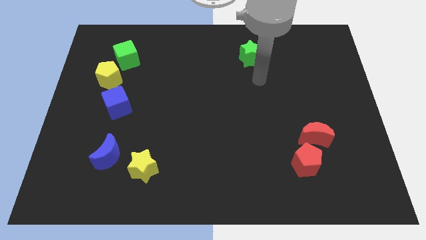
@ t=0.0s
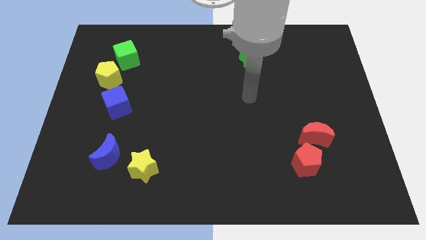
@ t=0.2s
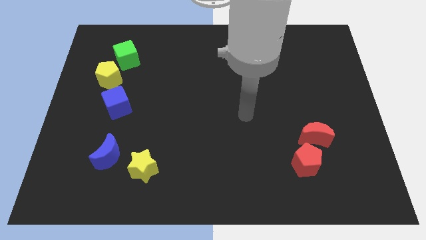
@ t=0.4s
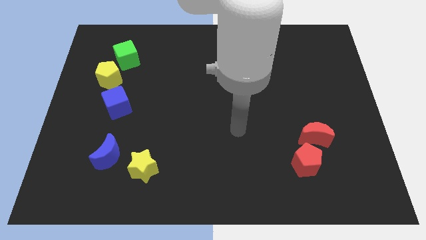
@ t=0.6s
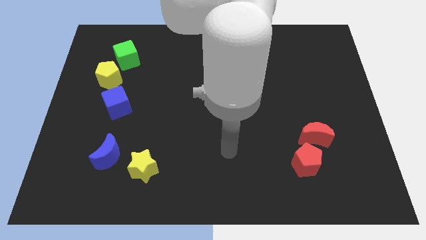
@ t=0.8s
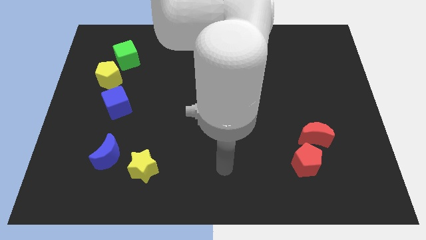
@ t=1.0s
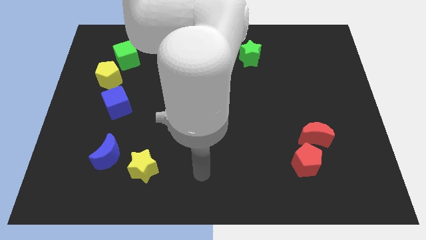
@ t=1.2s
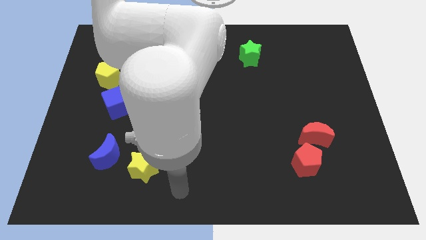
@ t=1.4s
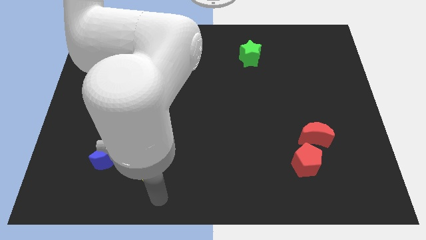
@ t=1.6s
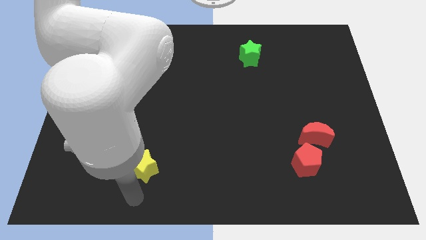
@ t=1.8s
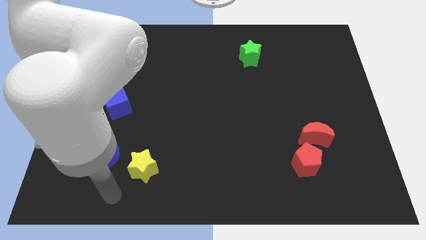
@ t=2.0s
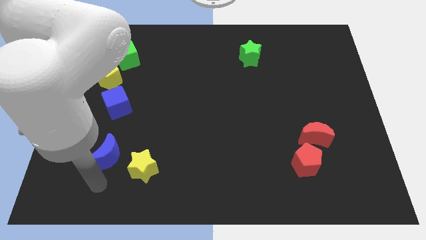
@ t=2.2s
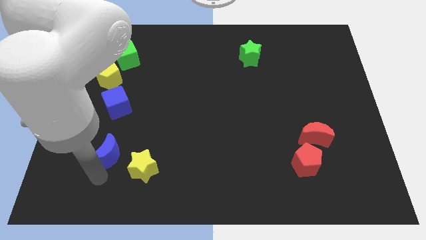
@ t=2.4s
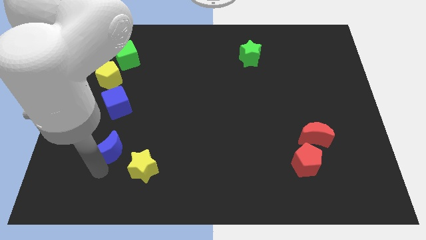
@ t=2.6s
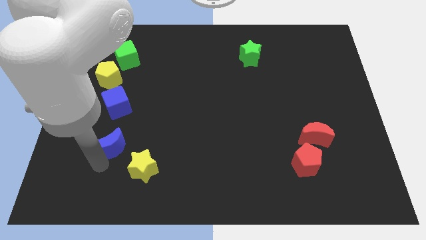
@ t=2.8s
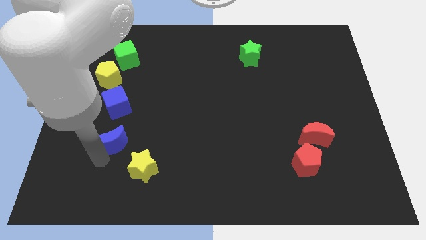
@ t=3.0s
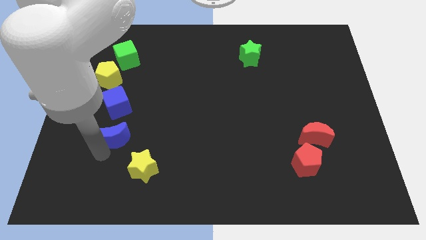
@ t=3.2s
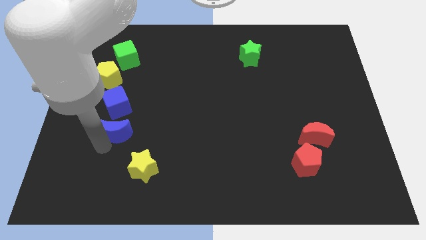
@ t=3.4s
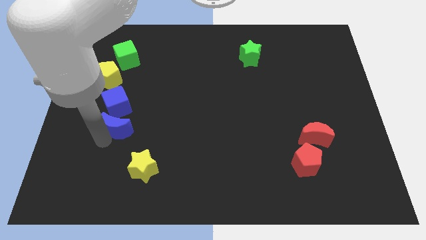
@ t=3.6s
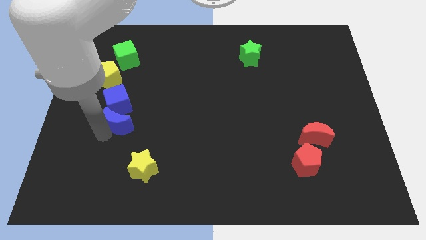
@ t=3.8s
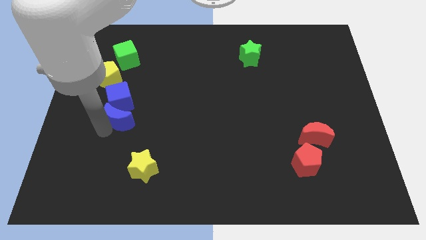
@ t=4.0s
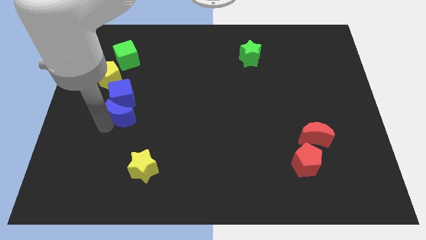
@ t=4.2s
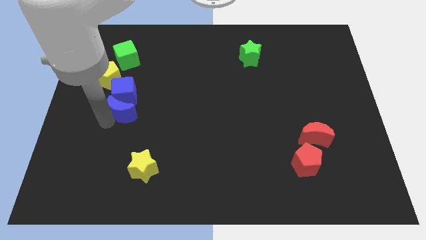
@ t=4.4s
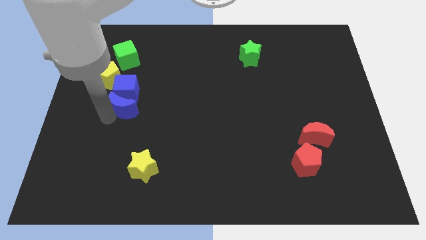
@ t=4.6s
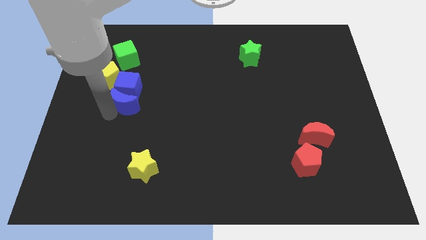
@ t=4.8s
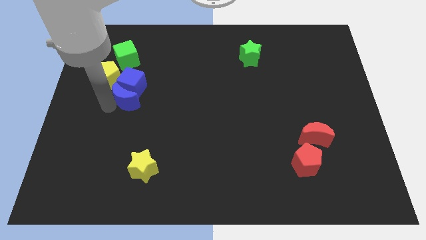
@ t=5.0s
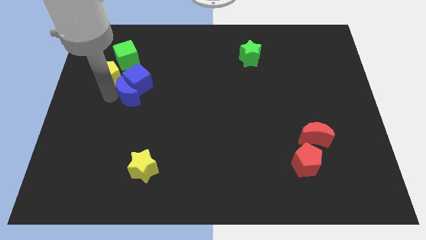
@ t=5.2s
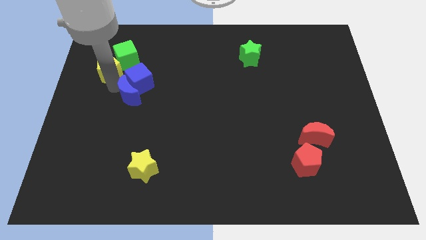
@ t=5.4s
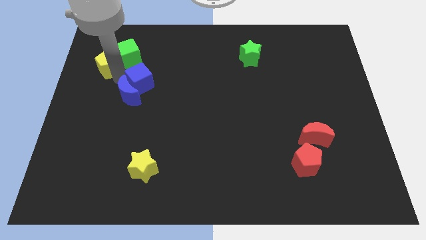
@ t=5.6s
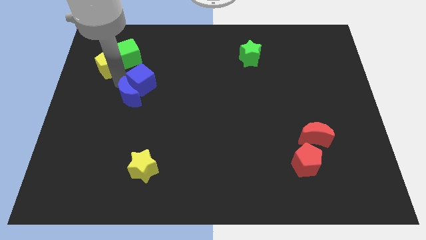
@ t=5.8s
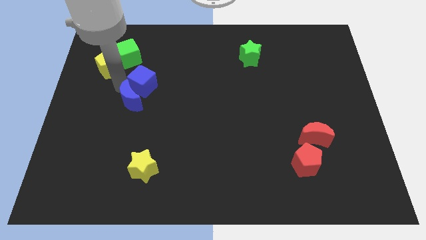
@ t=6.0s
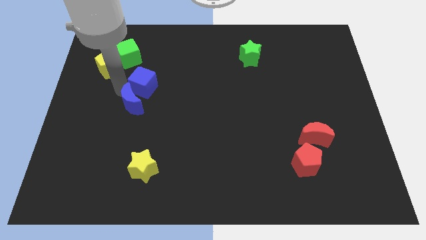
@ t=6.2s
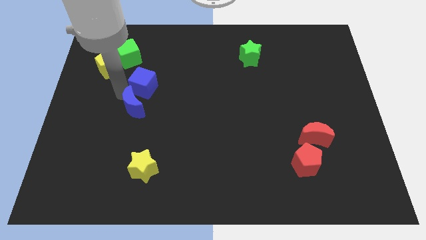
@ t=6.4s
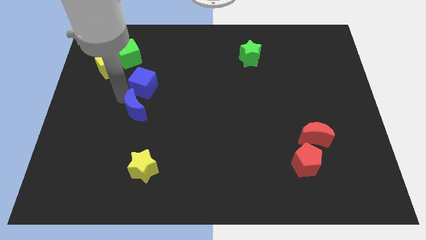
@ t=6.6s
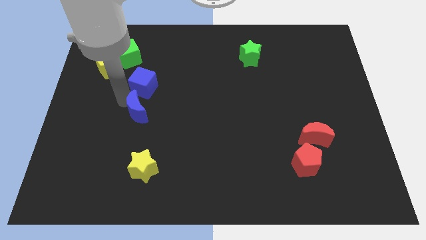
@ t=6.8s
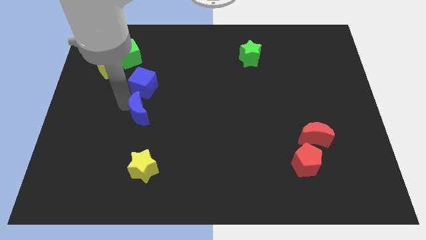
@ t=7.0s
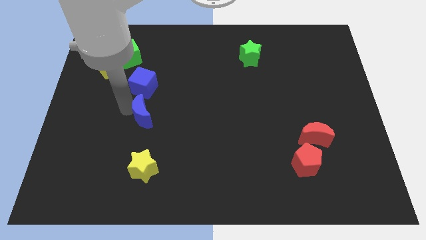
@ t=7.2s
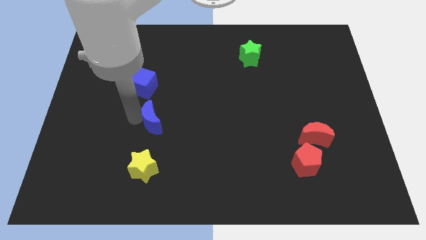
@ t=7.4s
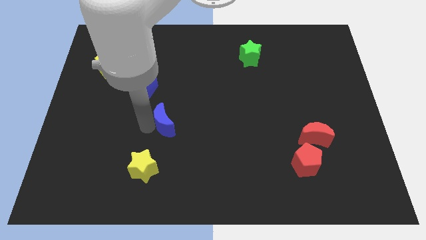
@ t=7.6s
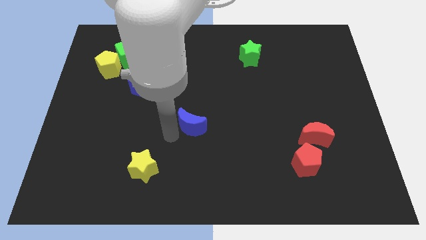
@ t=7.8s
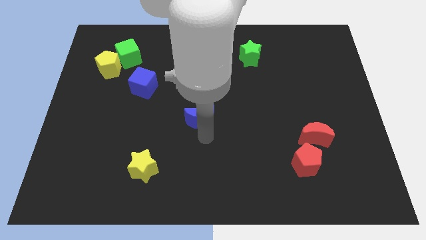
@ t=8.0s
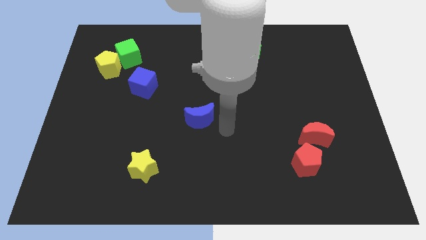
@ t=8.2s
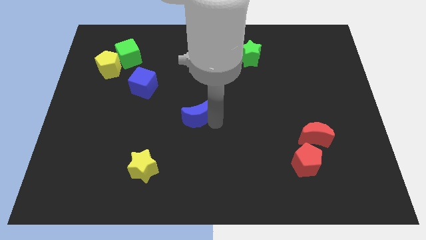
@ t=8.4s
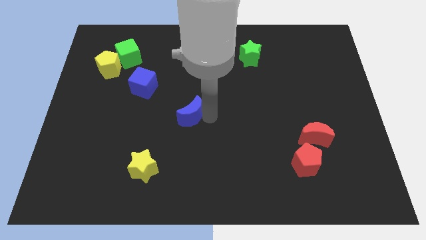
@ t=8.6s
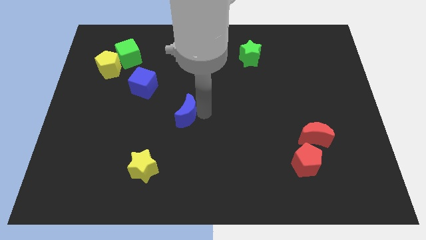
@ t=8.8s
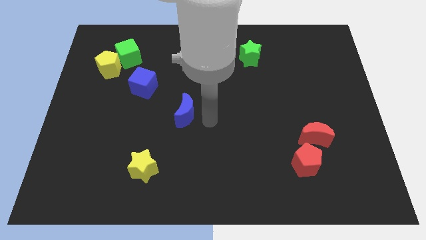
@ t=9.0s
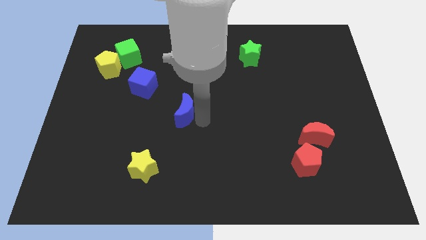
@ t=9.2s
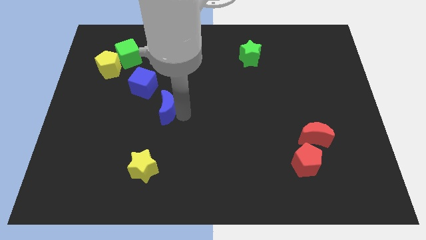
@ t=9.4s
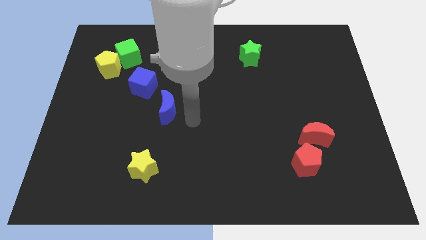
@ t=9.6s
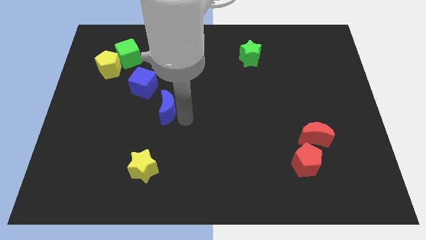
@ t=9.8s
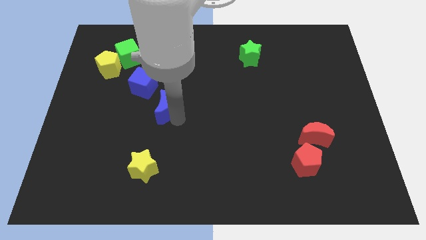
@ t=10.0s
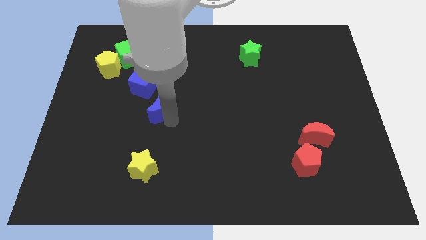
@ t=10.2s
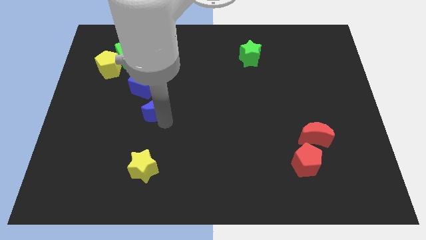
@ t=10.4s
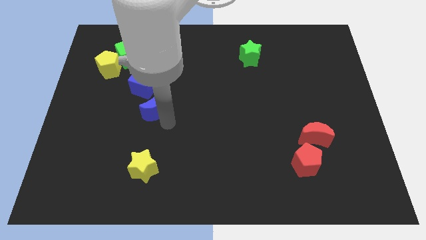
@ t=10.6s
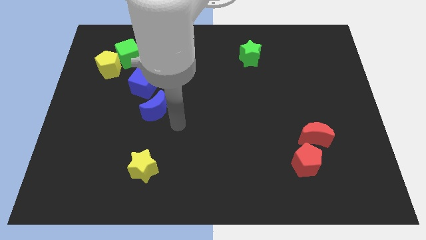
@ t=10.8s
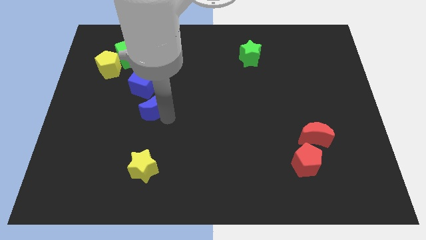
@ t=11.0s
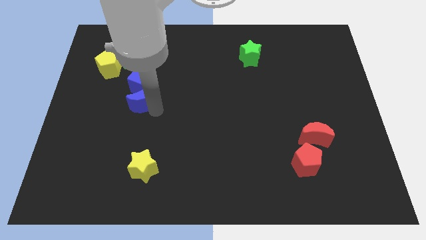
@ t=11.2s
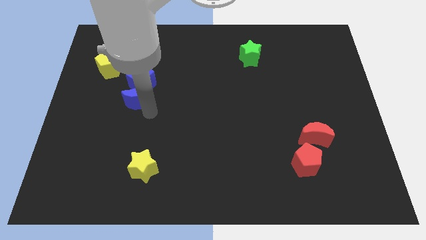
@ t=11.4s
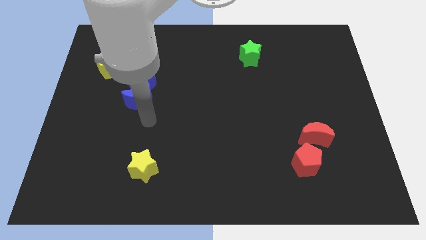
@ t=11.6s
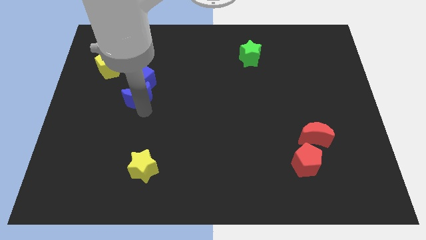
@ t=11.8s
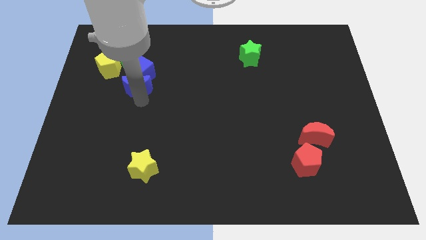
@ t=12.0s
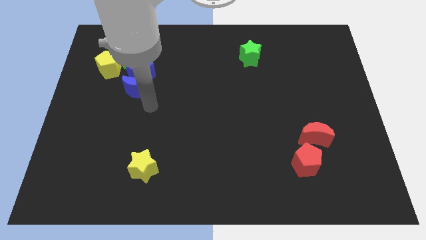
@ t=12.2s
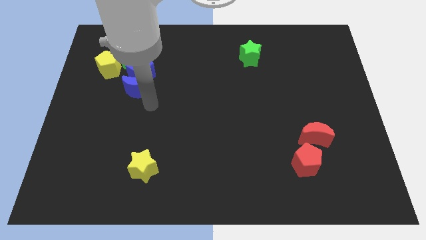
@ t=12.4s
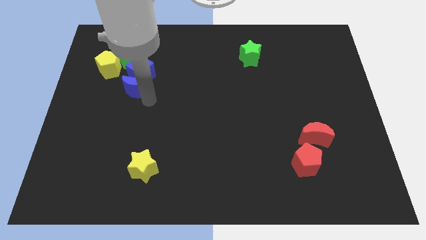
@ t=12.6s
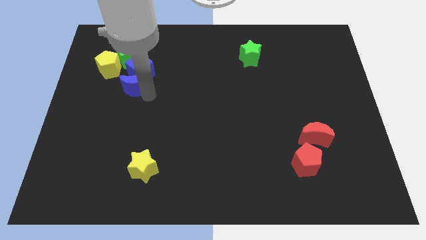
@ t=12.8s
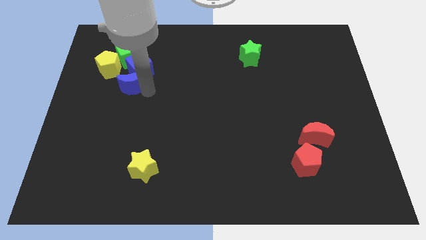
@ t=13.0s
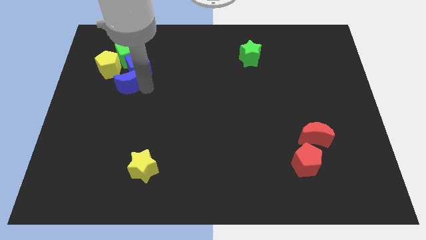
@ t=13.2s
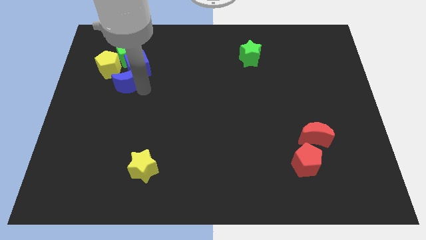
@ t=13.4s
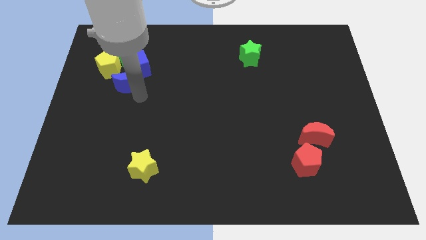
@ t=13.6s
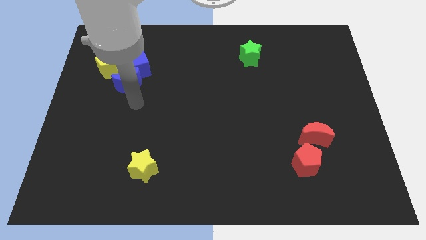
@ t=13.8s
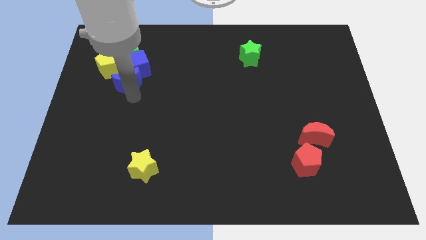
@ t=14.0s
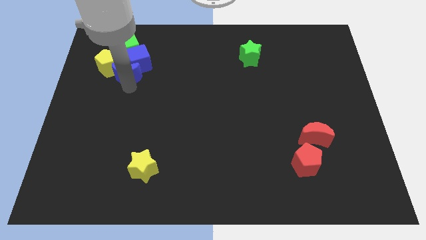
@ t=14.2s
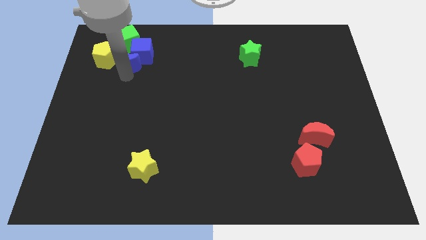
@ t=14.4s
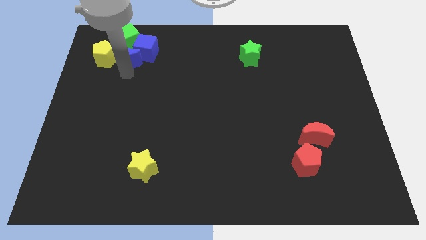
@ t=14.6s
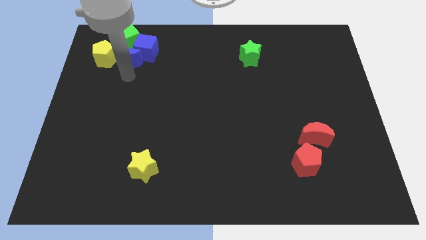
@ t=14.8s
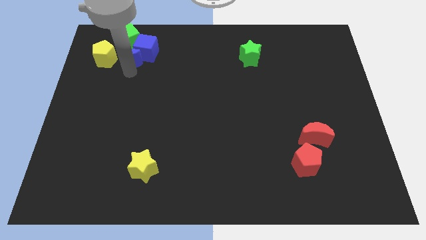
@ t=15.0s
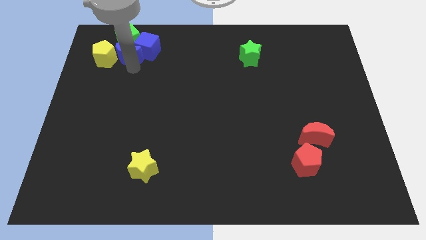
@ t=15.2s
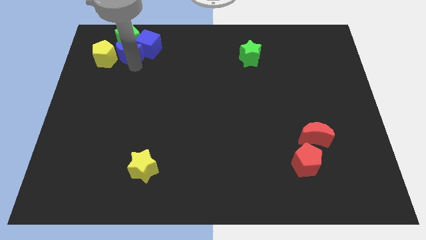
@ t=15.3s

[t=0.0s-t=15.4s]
move the blue moon close to the green cube
